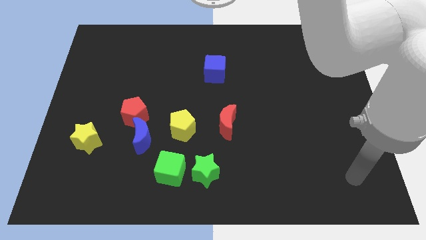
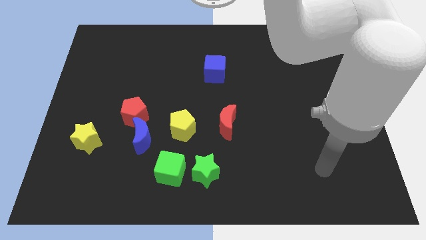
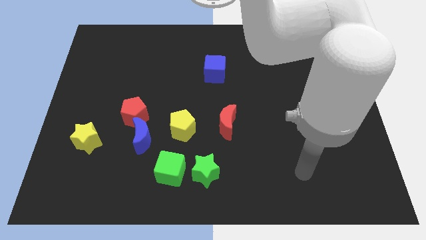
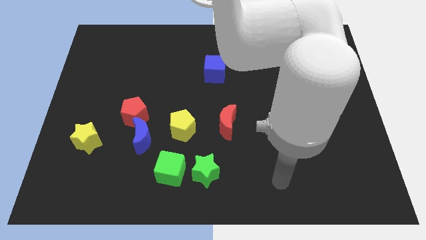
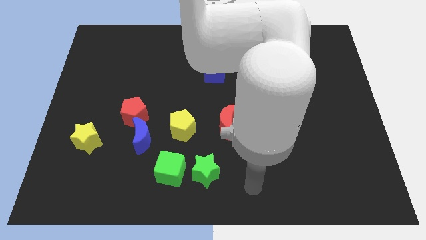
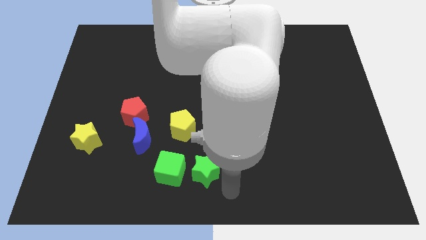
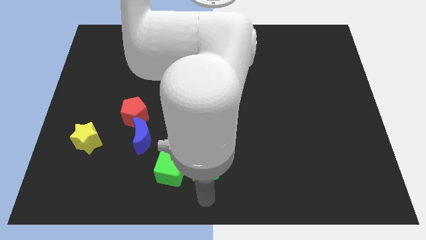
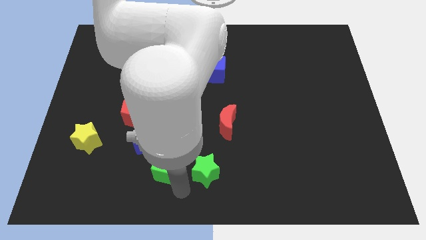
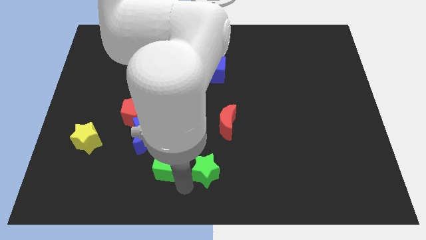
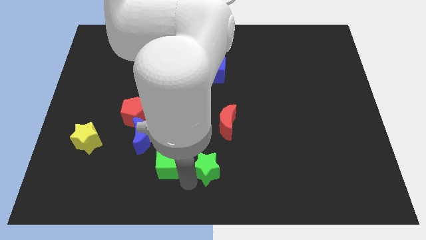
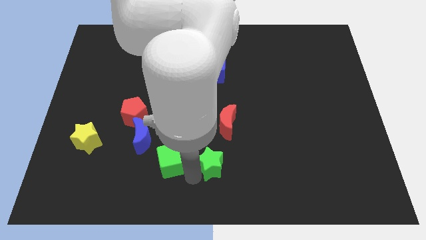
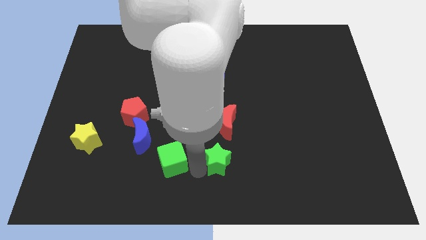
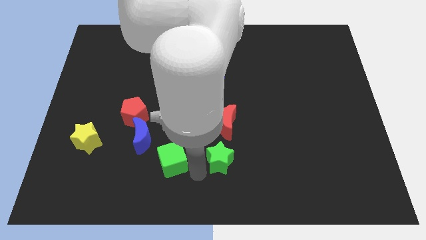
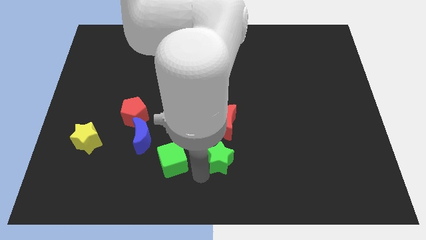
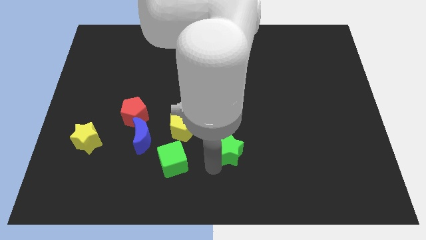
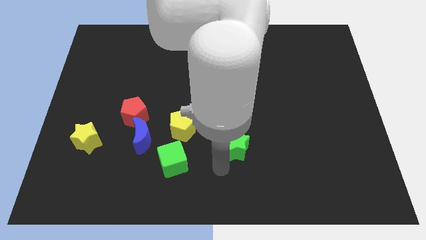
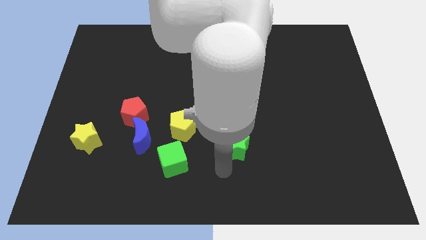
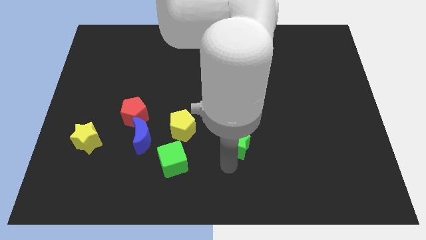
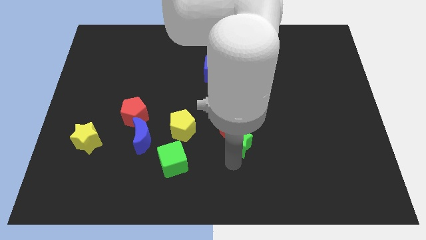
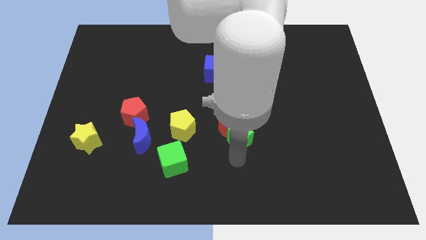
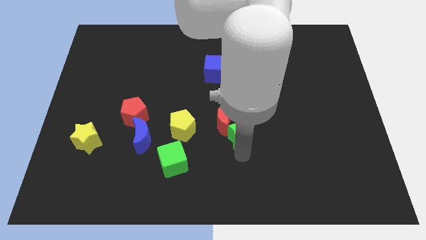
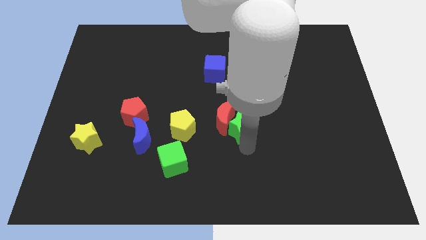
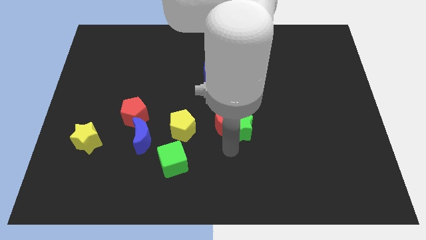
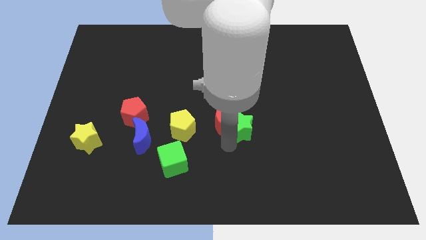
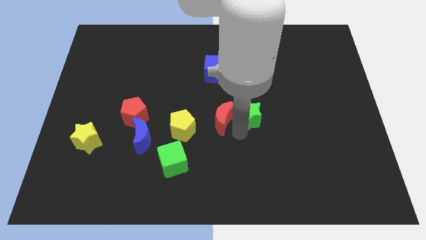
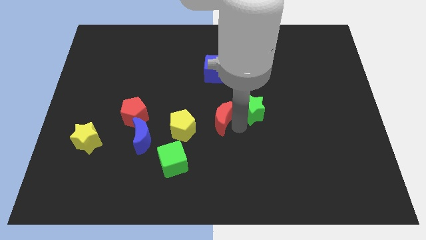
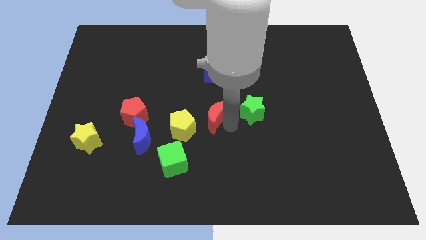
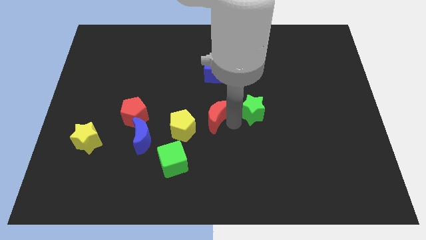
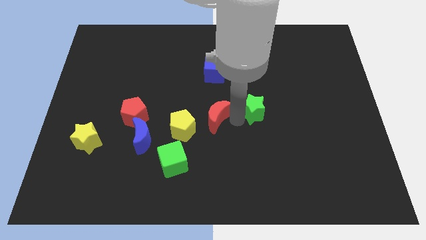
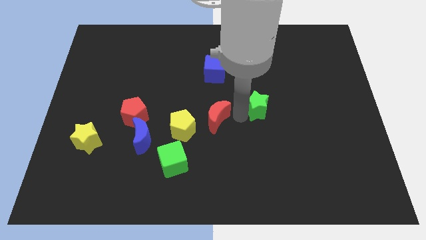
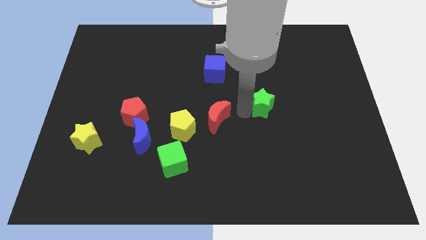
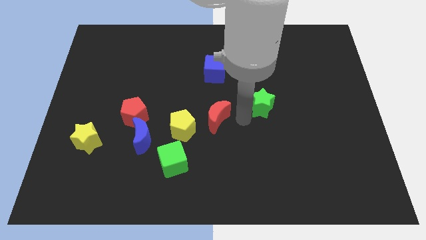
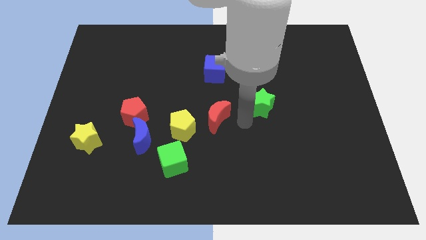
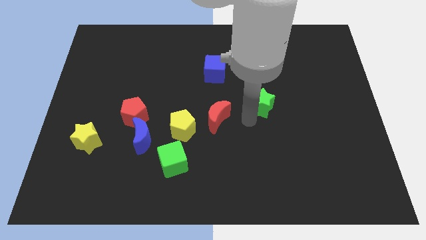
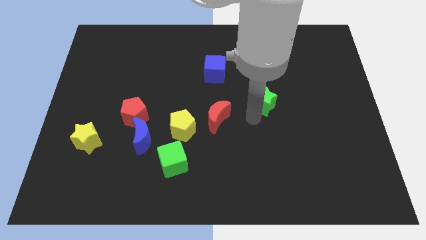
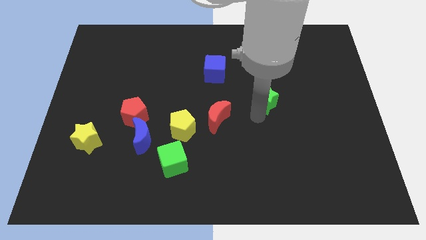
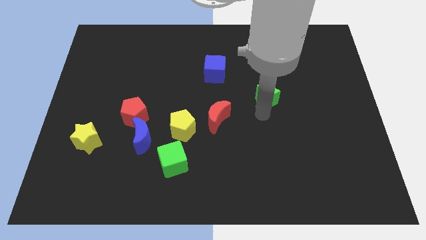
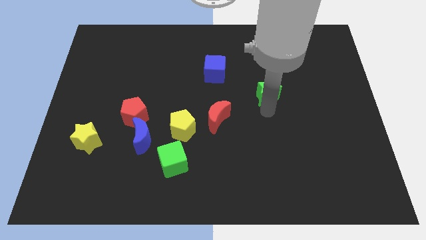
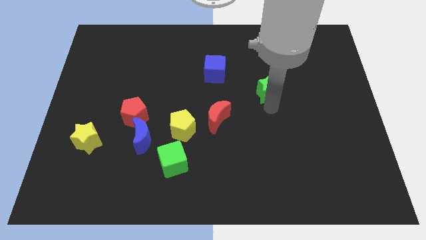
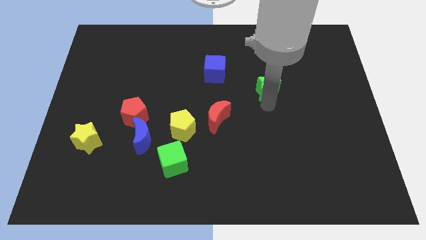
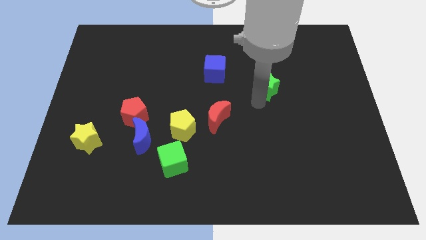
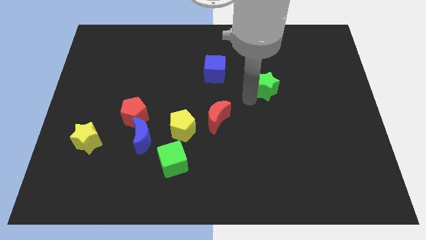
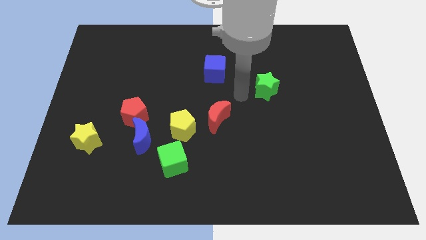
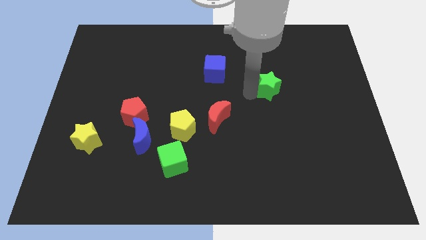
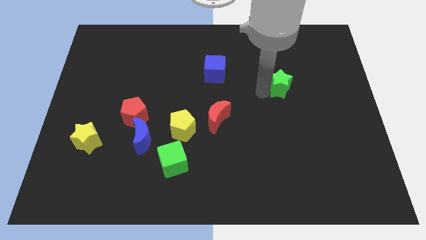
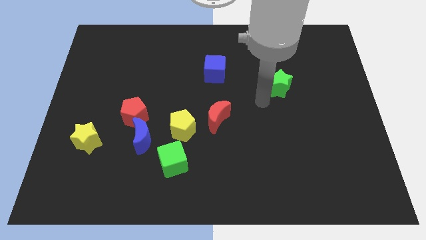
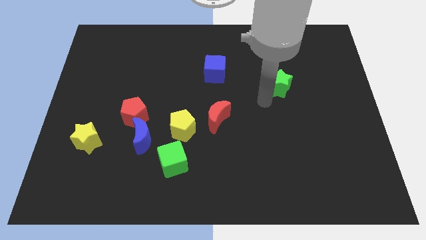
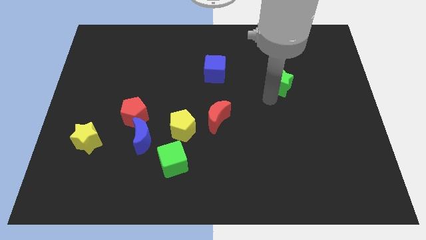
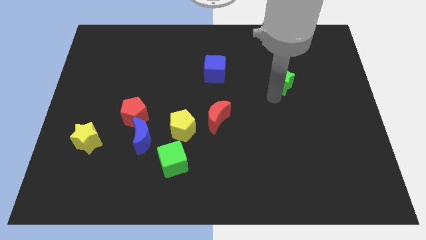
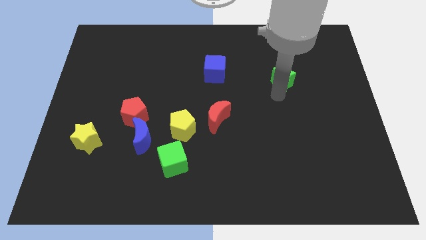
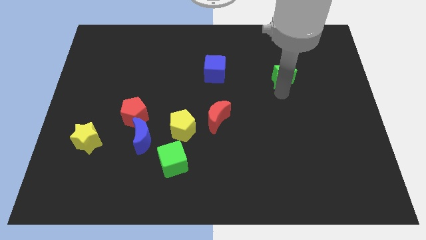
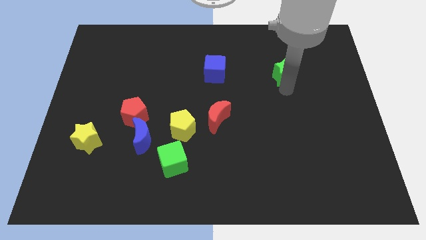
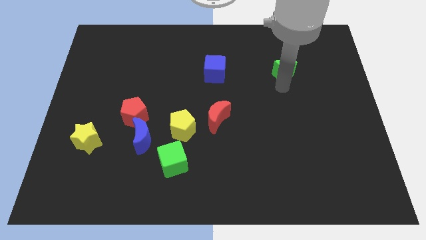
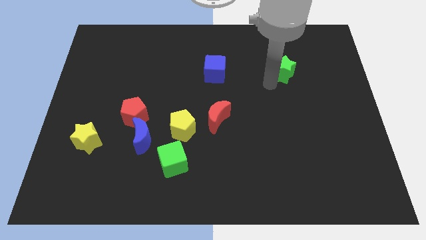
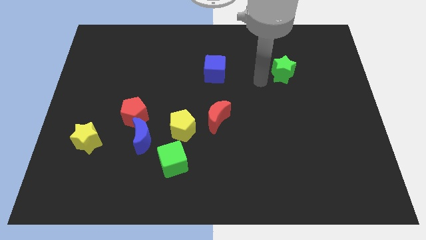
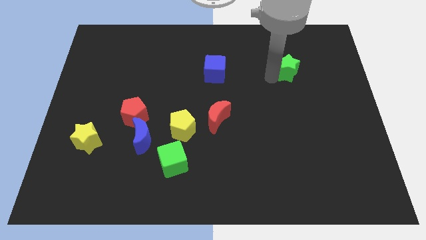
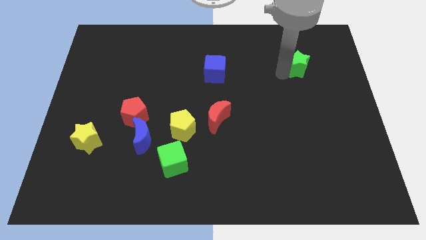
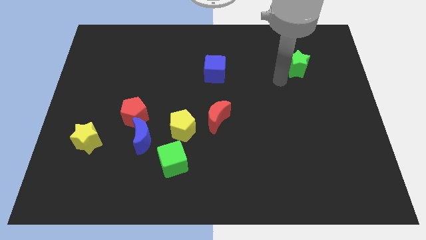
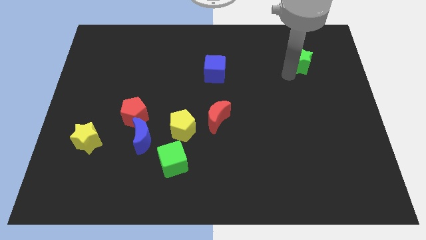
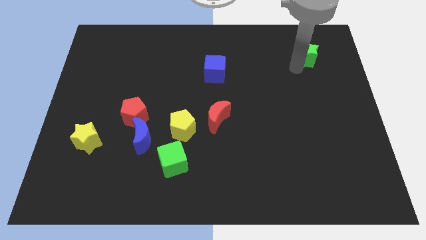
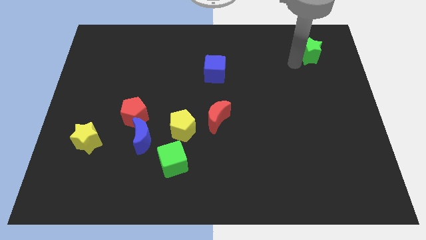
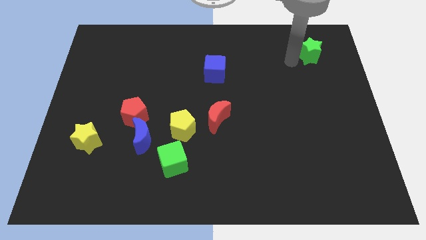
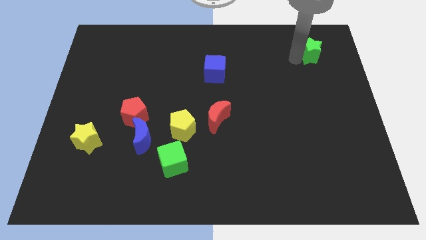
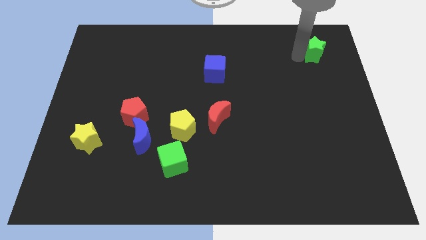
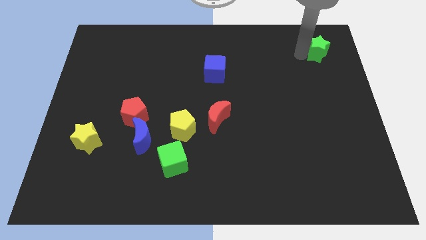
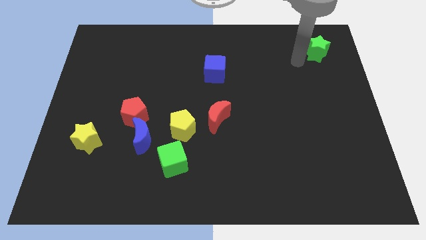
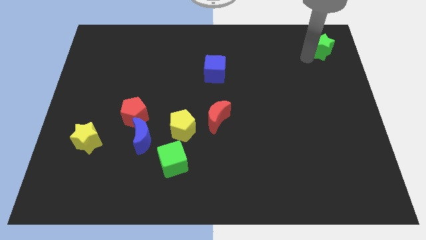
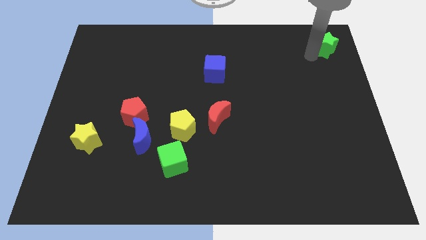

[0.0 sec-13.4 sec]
move the green star to the top right
